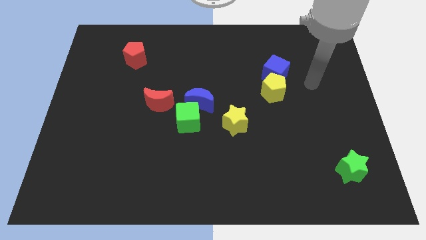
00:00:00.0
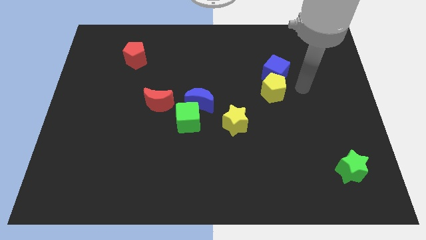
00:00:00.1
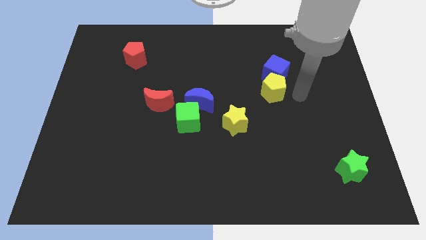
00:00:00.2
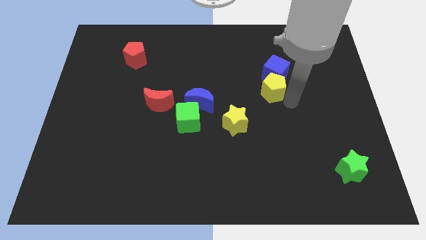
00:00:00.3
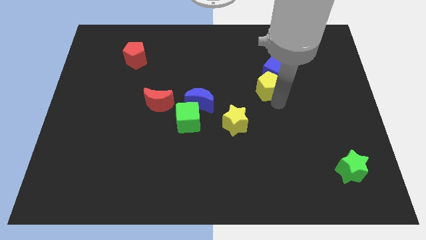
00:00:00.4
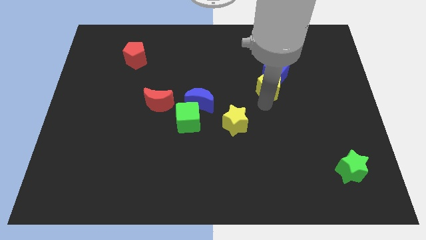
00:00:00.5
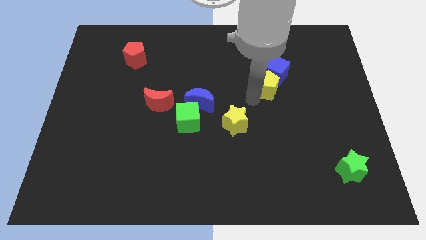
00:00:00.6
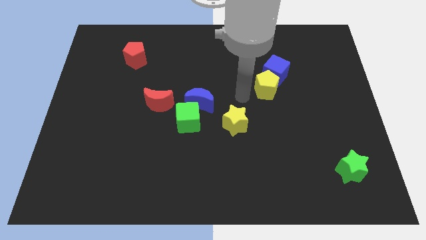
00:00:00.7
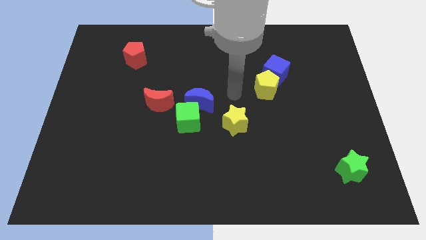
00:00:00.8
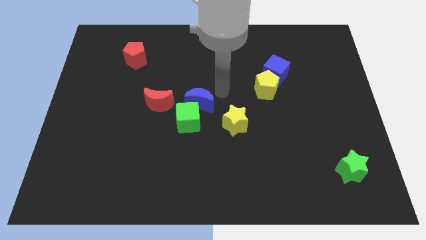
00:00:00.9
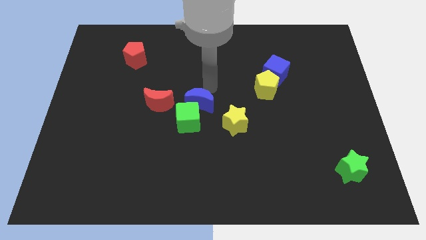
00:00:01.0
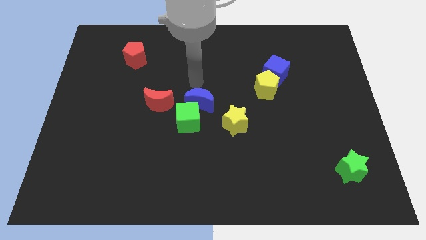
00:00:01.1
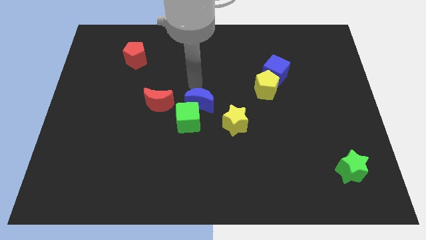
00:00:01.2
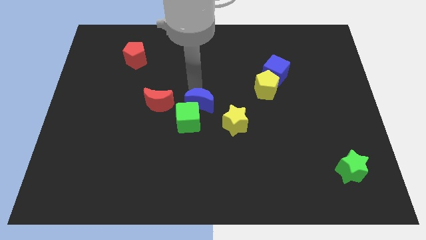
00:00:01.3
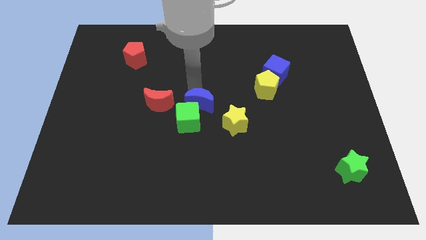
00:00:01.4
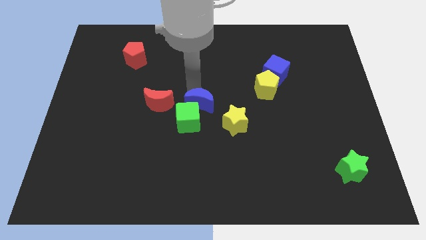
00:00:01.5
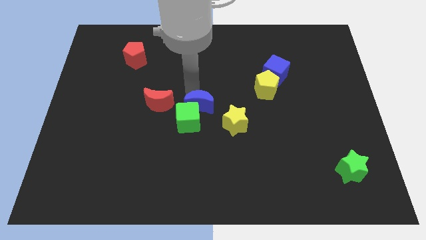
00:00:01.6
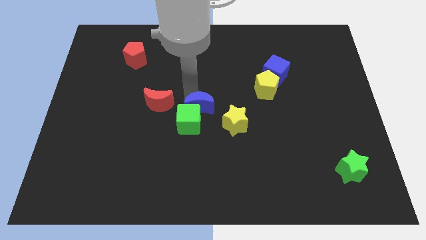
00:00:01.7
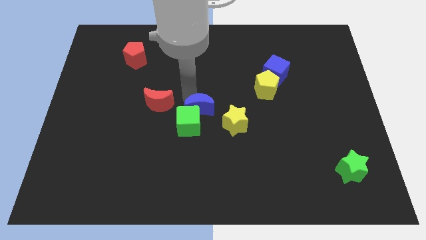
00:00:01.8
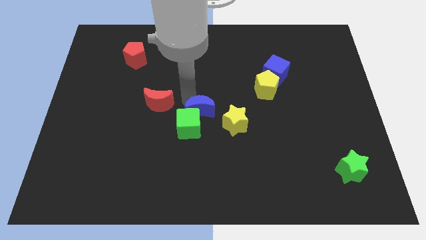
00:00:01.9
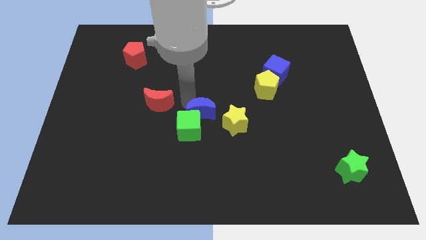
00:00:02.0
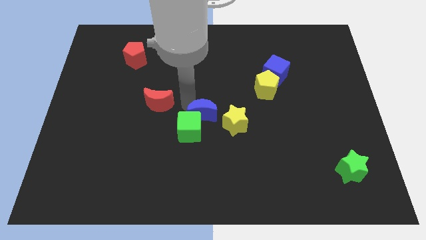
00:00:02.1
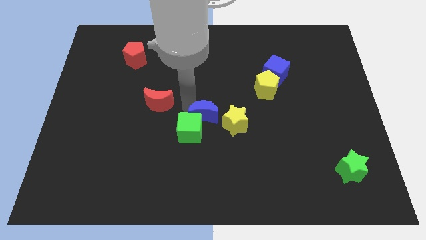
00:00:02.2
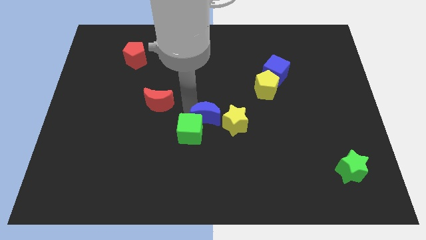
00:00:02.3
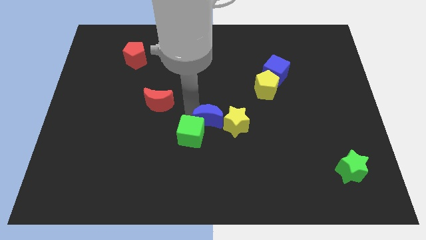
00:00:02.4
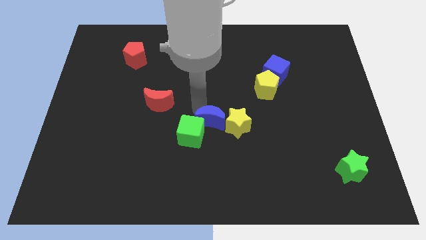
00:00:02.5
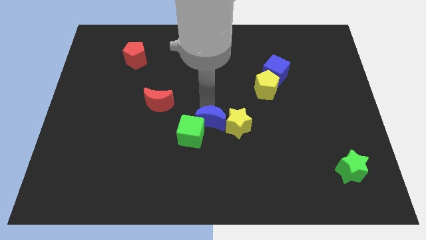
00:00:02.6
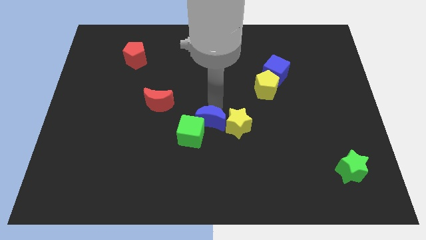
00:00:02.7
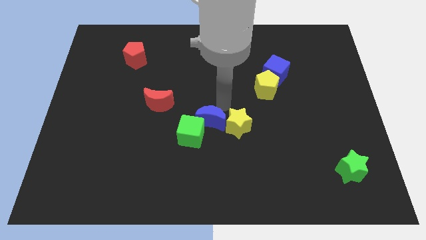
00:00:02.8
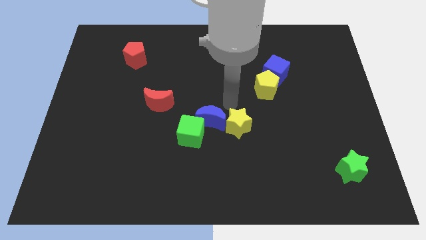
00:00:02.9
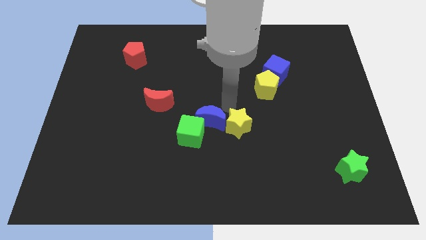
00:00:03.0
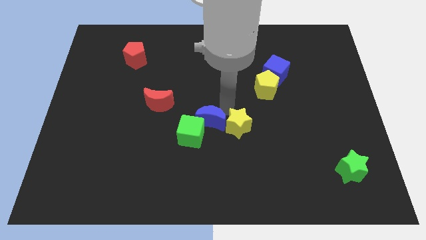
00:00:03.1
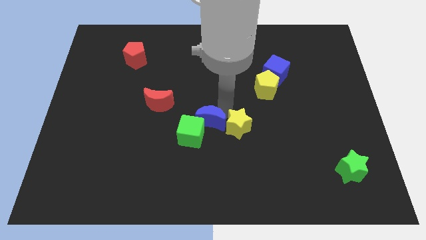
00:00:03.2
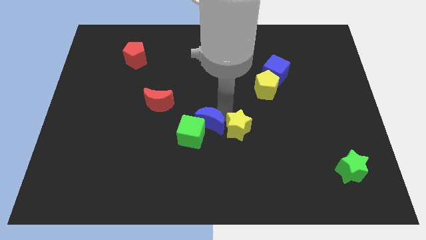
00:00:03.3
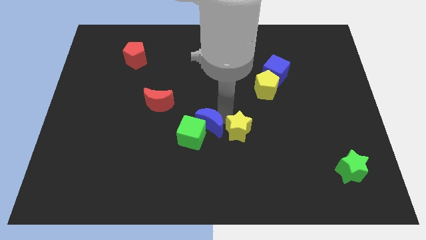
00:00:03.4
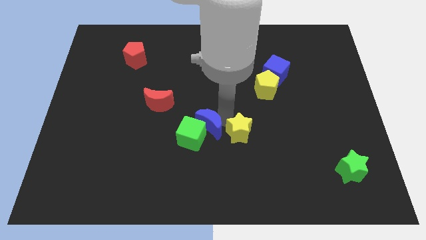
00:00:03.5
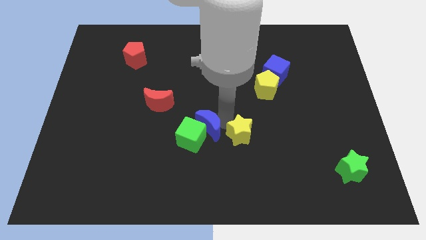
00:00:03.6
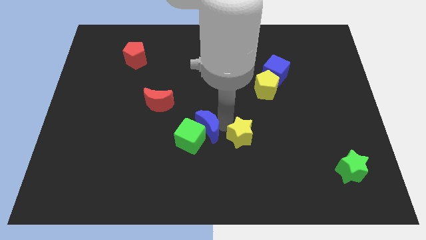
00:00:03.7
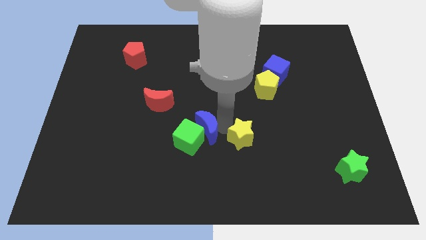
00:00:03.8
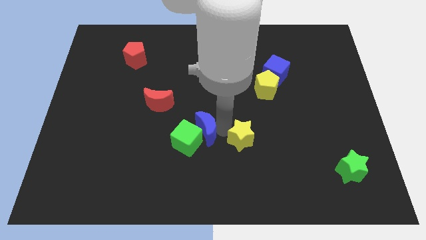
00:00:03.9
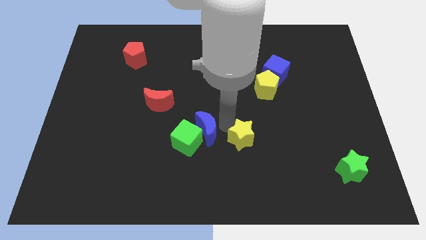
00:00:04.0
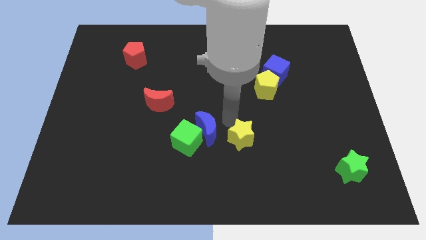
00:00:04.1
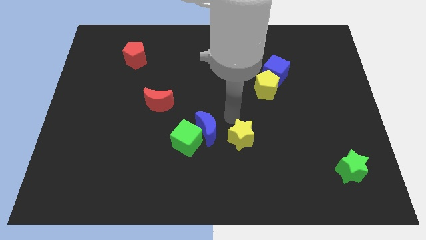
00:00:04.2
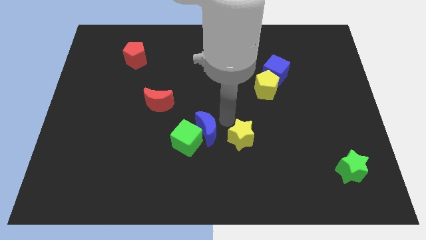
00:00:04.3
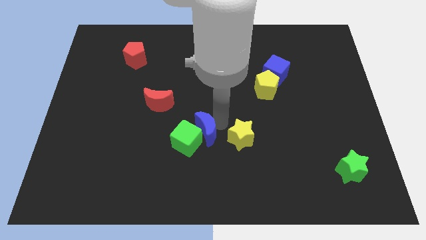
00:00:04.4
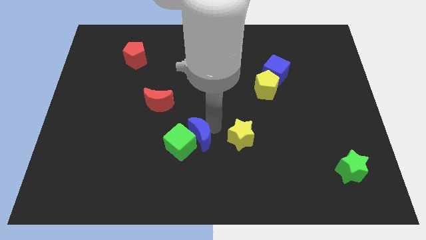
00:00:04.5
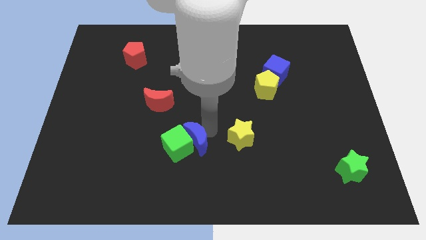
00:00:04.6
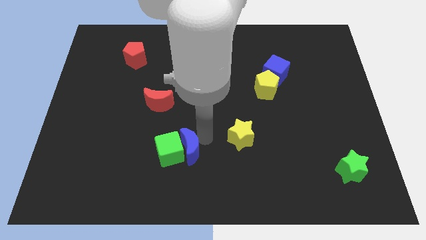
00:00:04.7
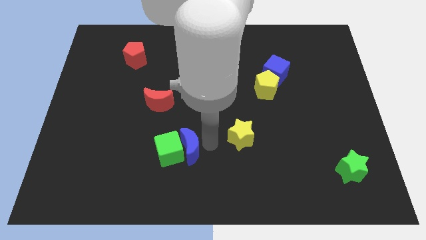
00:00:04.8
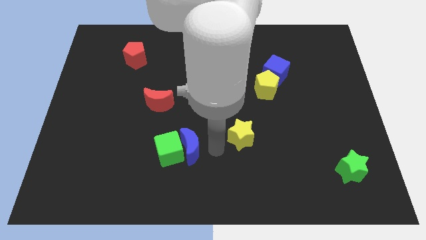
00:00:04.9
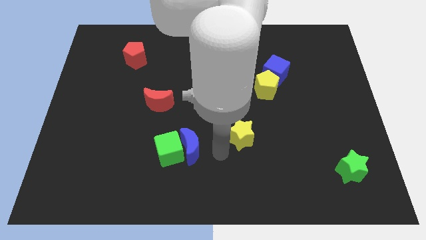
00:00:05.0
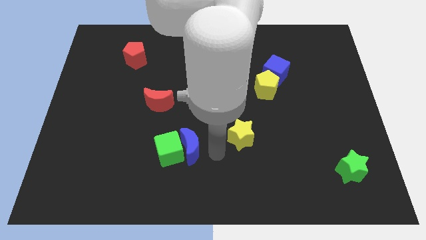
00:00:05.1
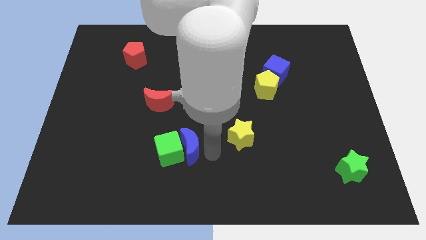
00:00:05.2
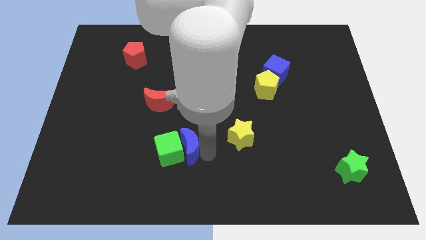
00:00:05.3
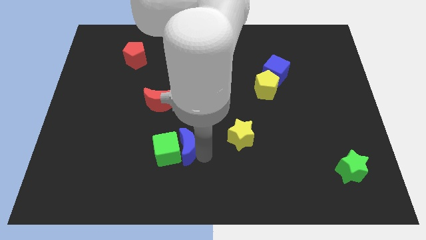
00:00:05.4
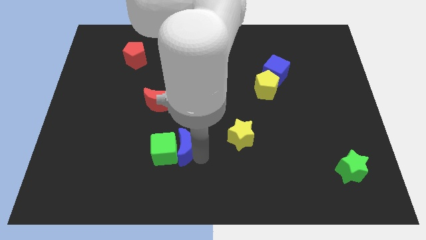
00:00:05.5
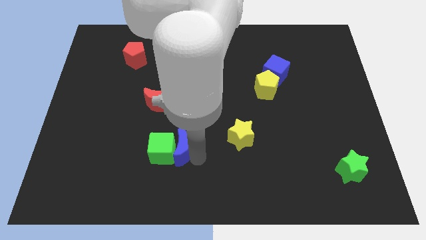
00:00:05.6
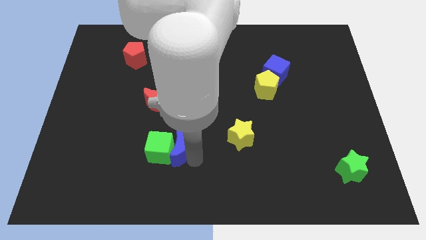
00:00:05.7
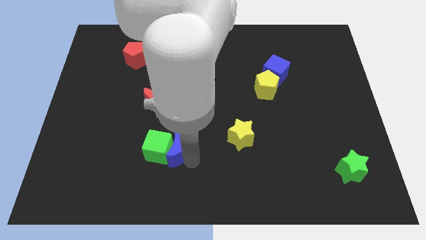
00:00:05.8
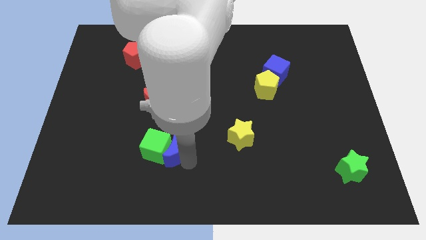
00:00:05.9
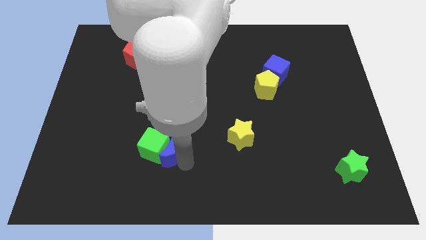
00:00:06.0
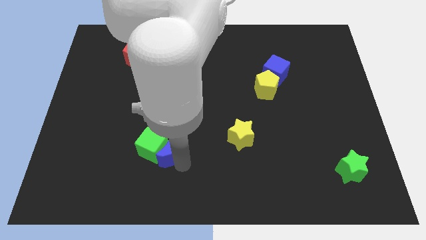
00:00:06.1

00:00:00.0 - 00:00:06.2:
move the blue moon to the bottom of the red moon

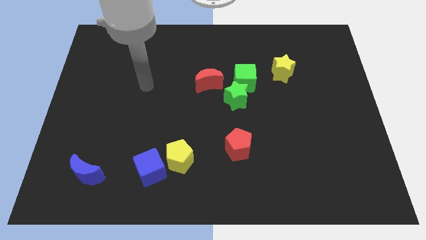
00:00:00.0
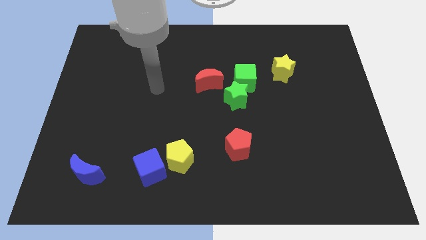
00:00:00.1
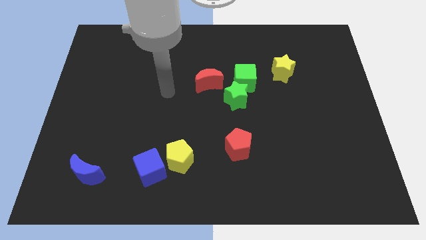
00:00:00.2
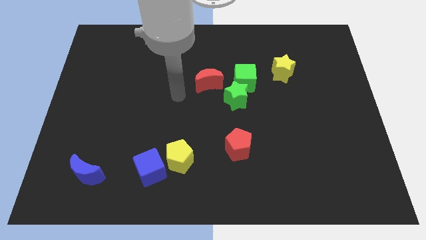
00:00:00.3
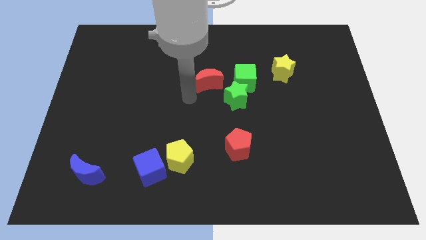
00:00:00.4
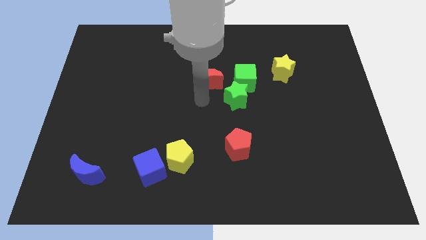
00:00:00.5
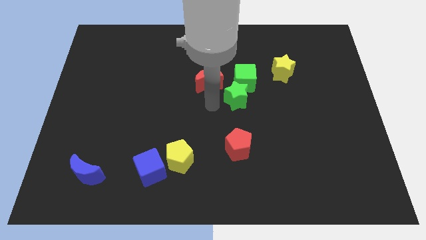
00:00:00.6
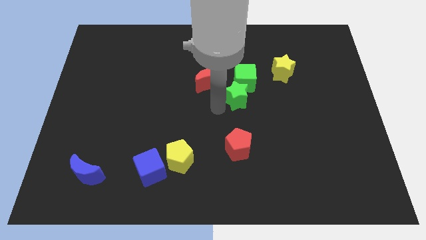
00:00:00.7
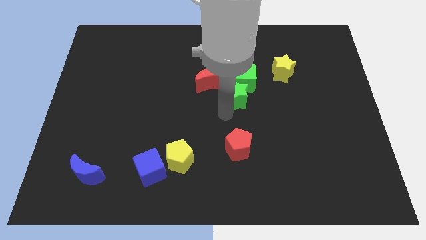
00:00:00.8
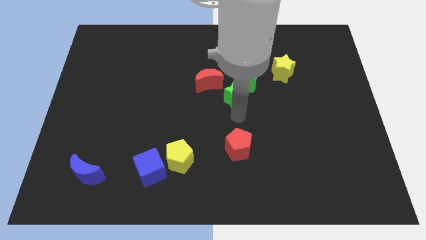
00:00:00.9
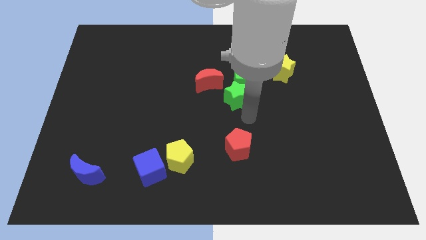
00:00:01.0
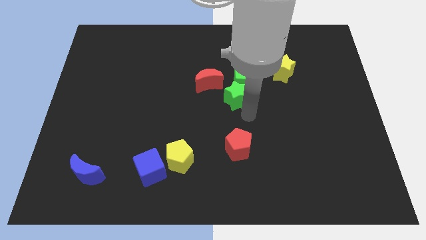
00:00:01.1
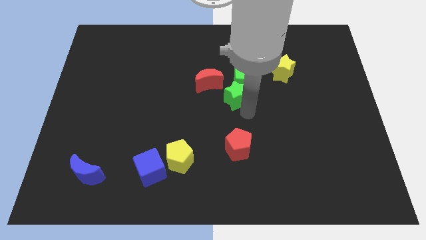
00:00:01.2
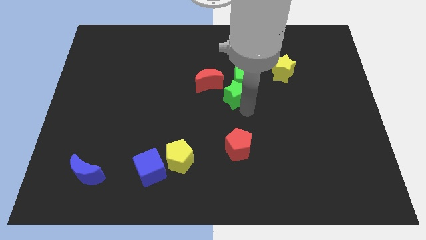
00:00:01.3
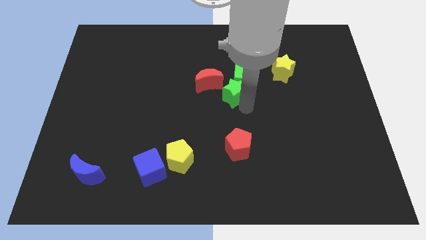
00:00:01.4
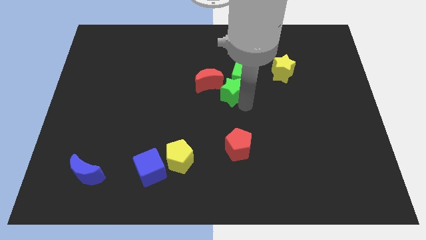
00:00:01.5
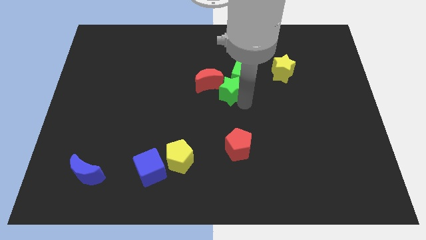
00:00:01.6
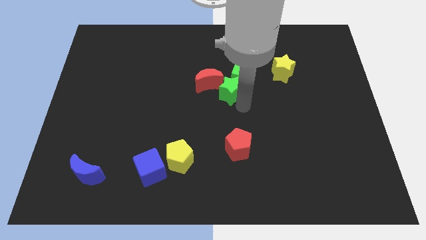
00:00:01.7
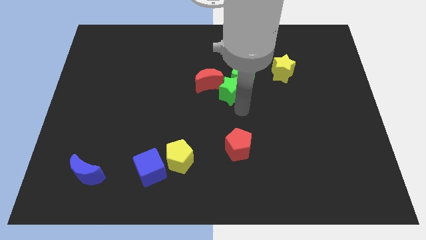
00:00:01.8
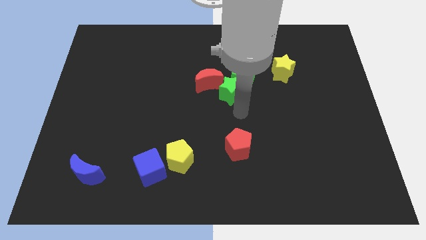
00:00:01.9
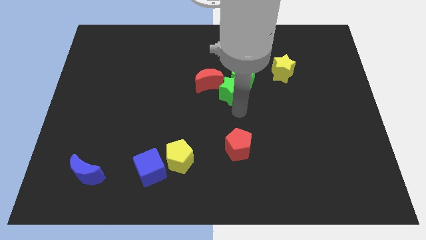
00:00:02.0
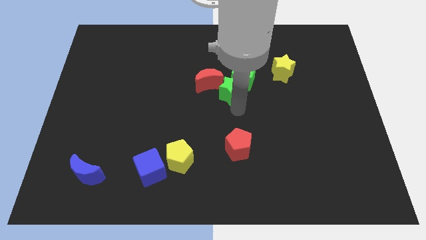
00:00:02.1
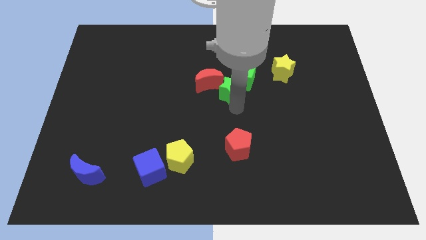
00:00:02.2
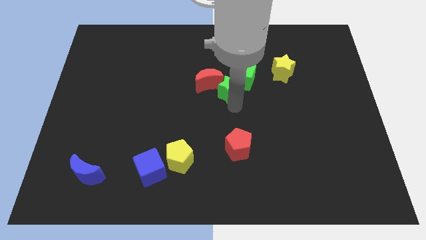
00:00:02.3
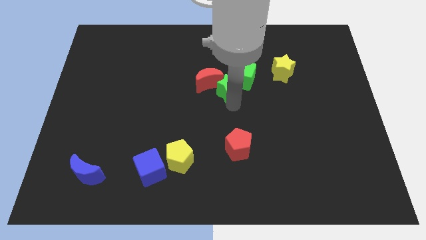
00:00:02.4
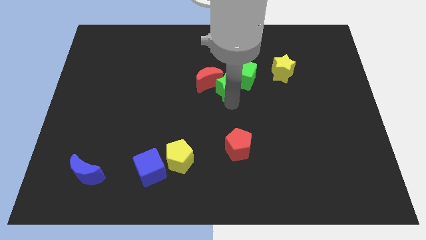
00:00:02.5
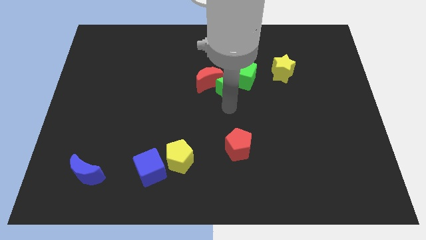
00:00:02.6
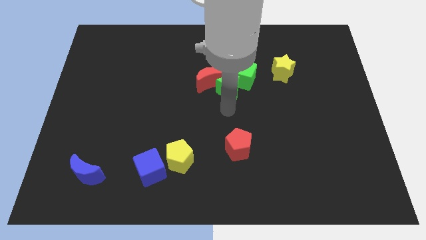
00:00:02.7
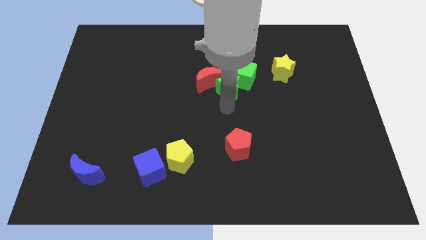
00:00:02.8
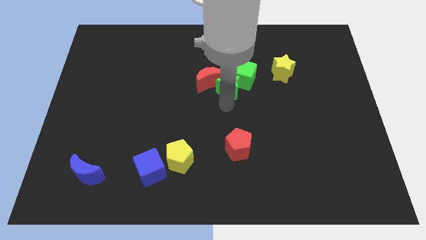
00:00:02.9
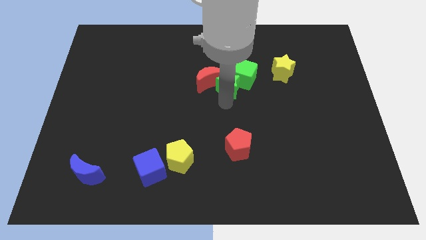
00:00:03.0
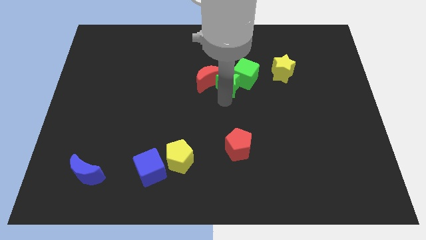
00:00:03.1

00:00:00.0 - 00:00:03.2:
push the green star diagonally up and to the right of the red moon
